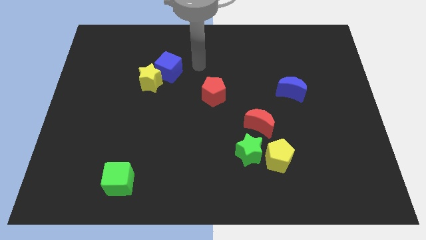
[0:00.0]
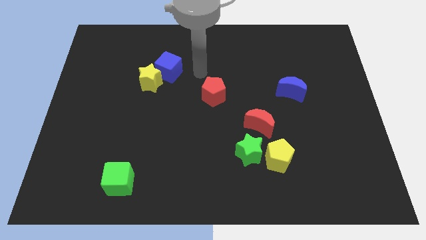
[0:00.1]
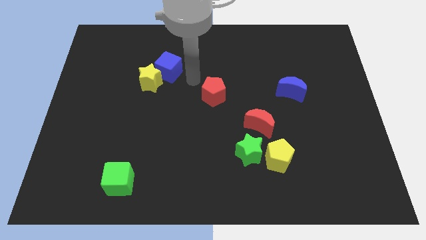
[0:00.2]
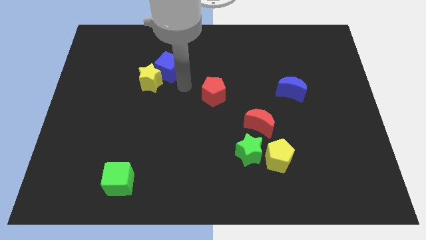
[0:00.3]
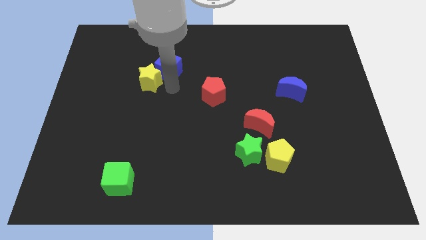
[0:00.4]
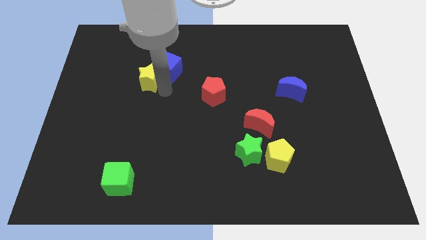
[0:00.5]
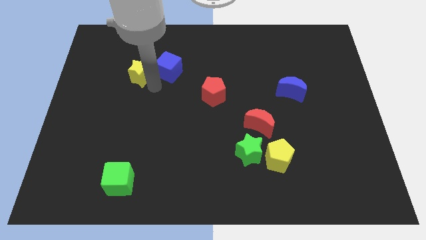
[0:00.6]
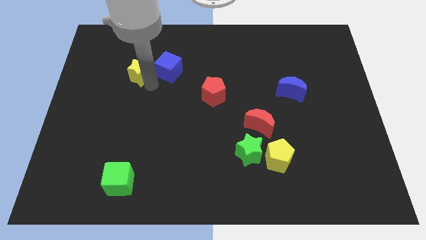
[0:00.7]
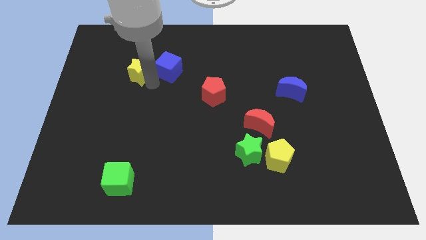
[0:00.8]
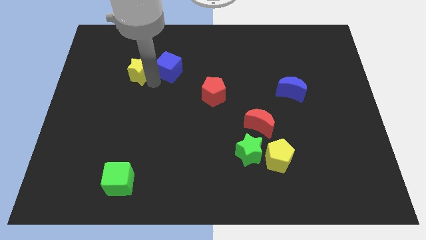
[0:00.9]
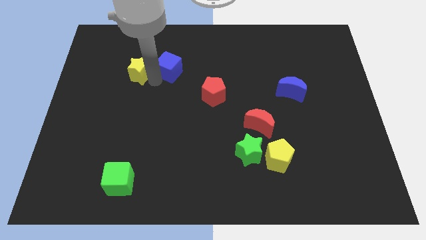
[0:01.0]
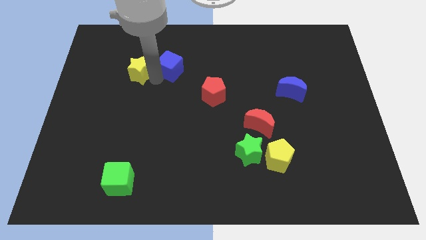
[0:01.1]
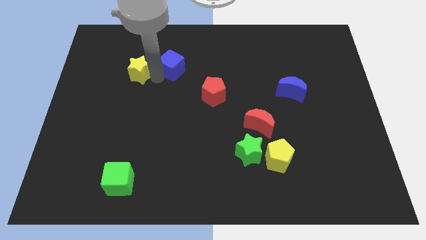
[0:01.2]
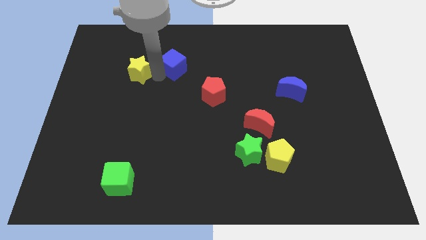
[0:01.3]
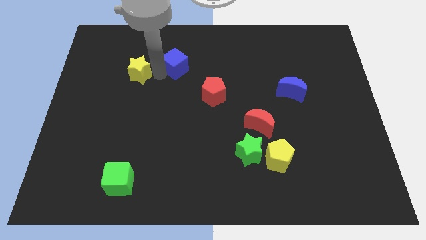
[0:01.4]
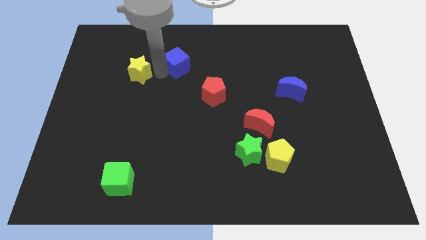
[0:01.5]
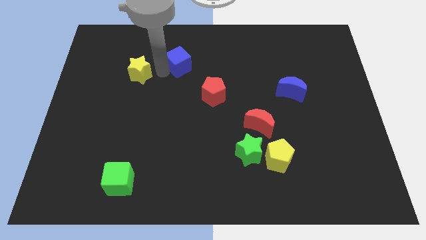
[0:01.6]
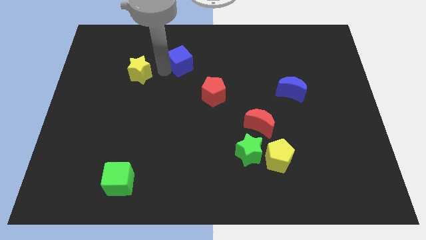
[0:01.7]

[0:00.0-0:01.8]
separate the blue cube from the yellow star

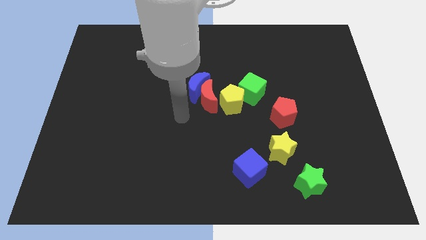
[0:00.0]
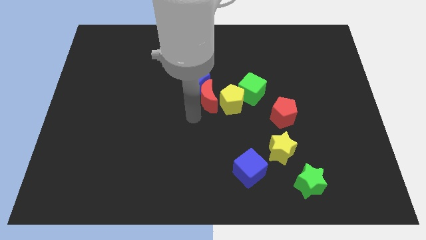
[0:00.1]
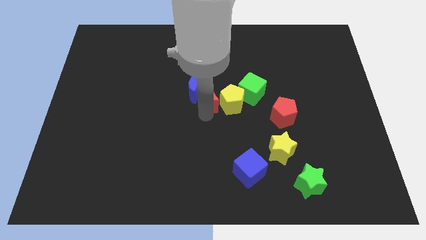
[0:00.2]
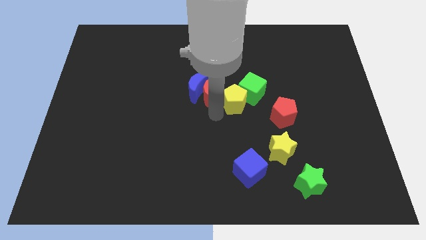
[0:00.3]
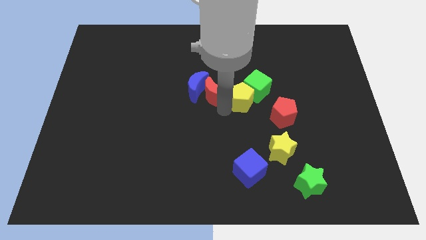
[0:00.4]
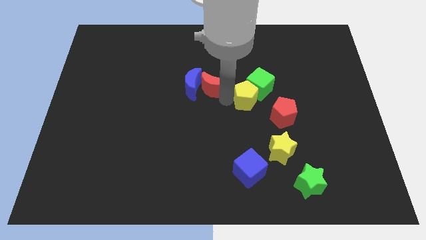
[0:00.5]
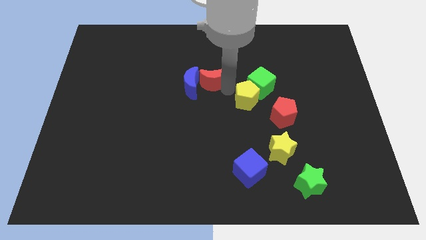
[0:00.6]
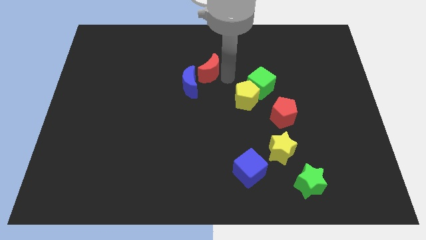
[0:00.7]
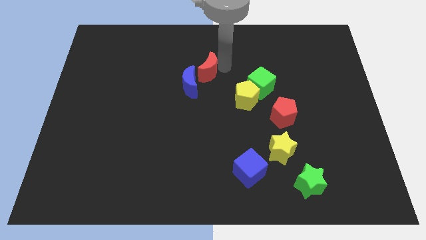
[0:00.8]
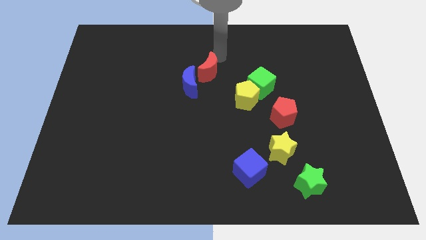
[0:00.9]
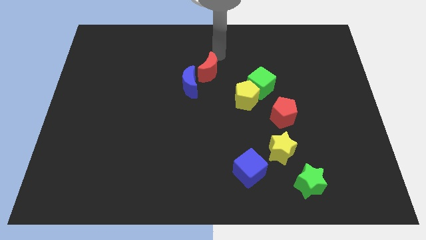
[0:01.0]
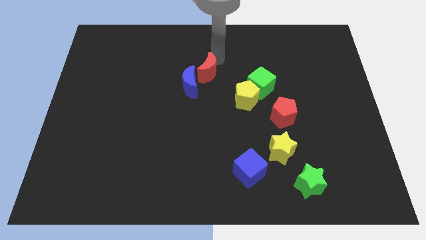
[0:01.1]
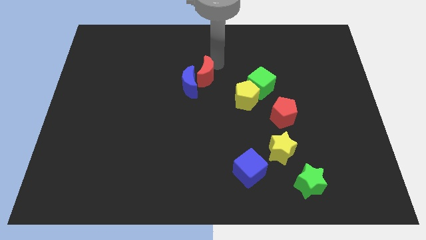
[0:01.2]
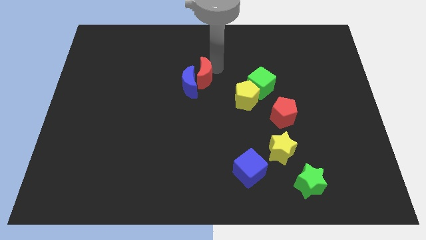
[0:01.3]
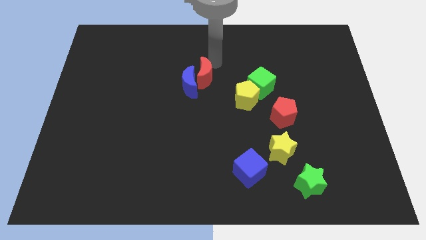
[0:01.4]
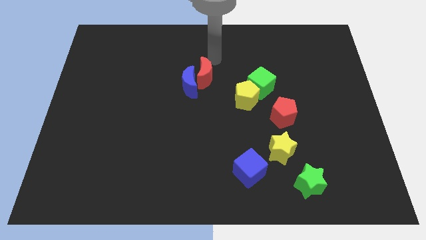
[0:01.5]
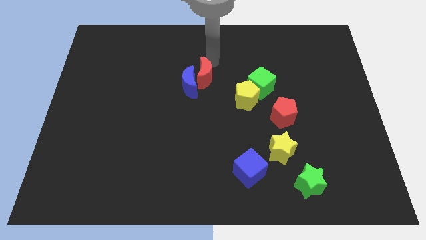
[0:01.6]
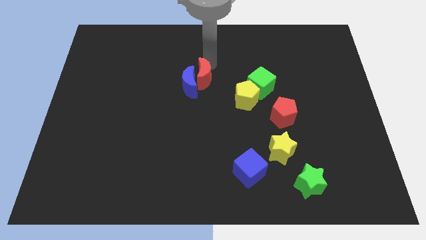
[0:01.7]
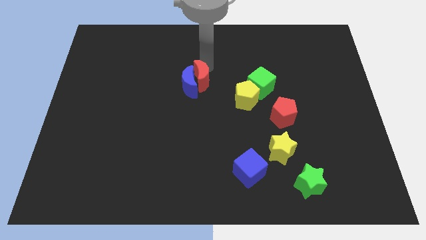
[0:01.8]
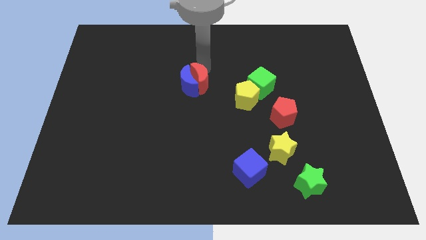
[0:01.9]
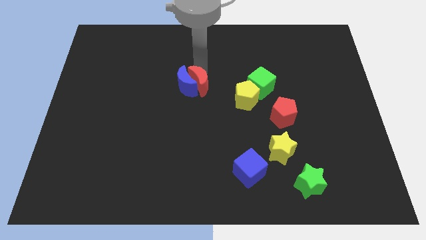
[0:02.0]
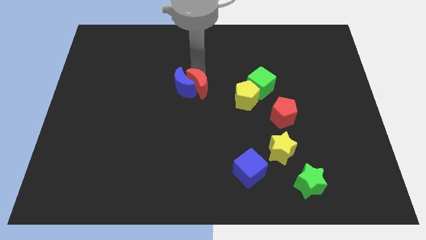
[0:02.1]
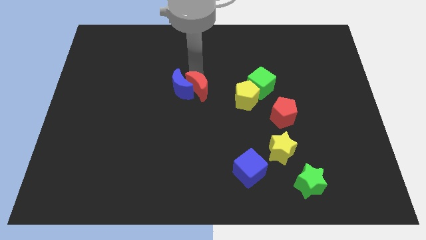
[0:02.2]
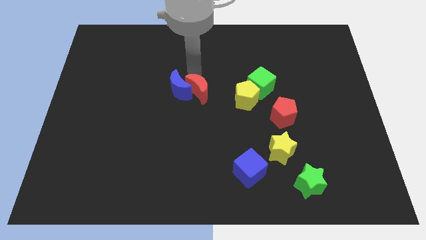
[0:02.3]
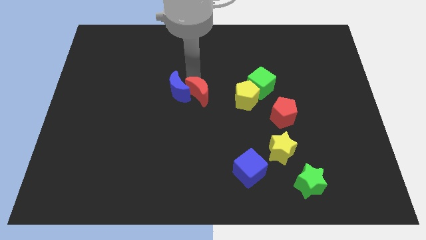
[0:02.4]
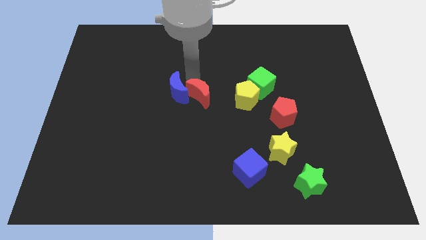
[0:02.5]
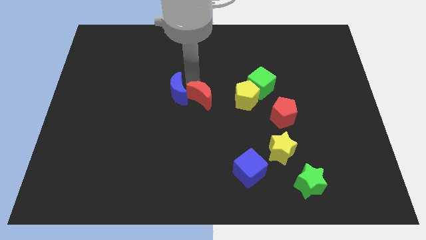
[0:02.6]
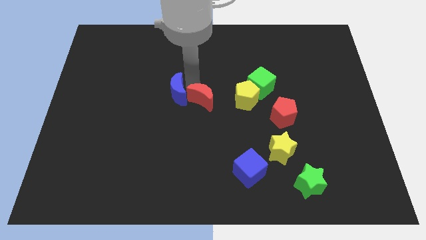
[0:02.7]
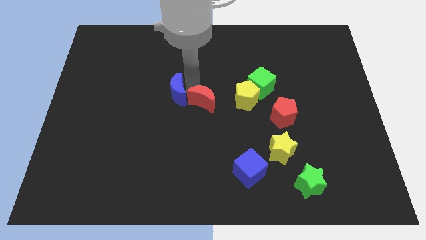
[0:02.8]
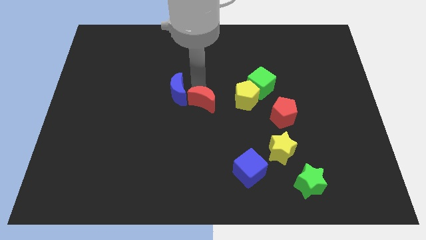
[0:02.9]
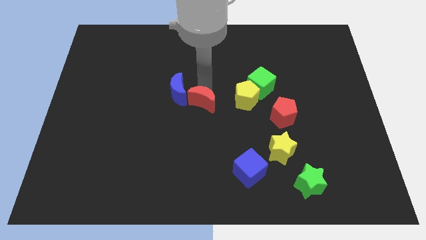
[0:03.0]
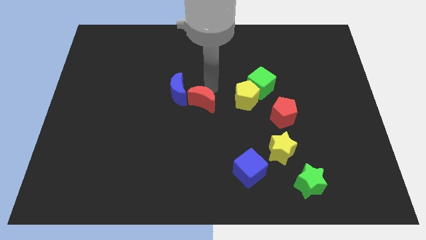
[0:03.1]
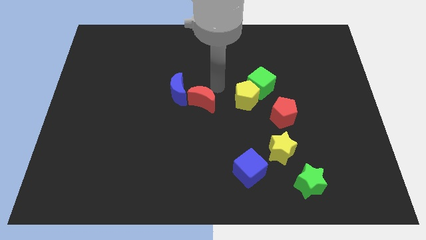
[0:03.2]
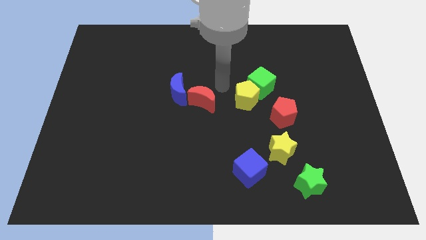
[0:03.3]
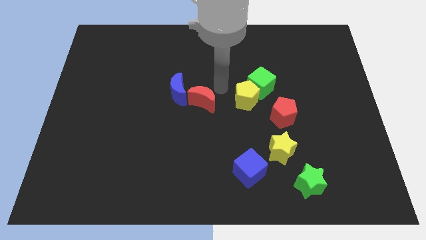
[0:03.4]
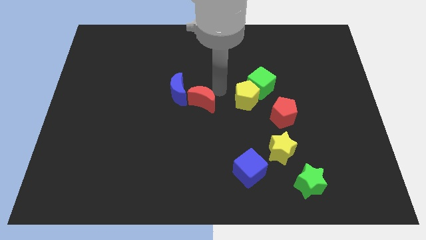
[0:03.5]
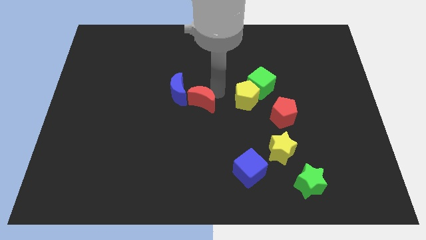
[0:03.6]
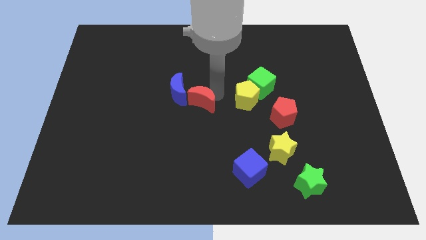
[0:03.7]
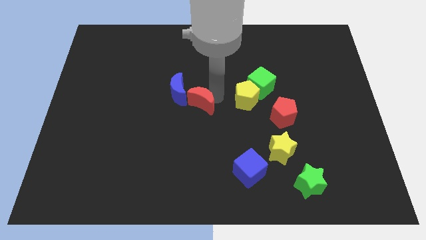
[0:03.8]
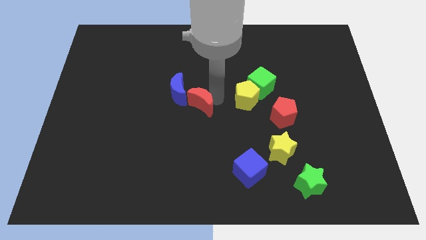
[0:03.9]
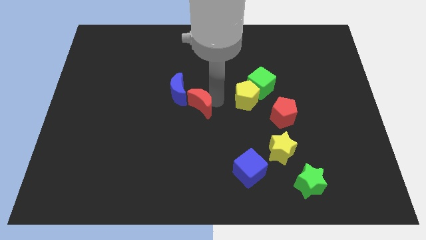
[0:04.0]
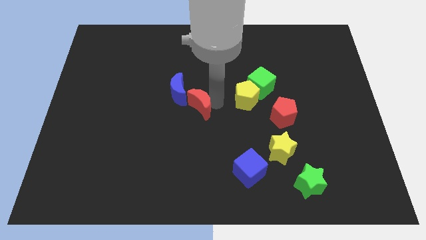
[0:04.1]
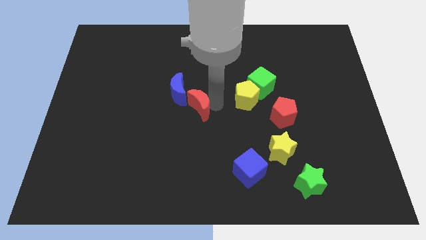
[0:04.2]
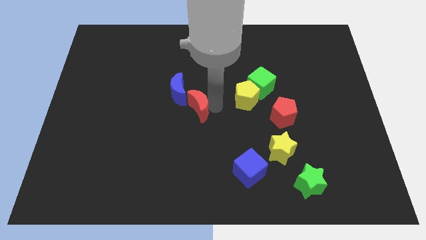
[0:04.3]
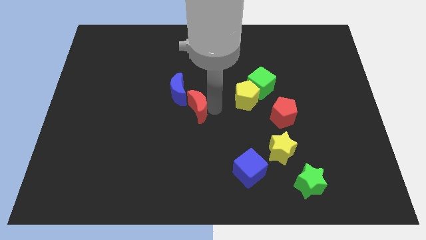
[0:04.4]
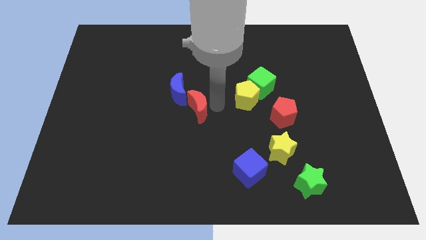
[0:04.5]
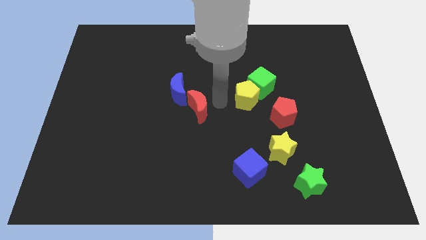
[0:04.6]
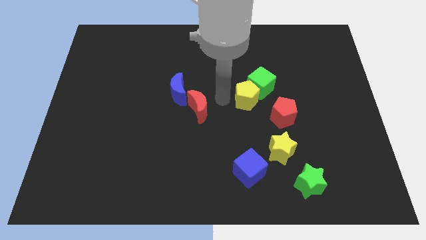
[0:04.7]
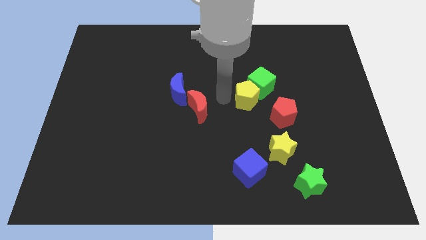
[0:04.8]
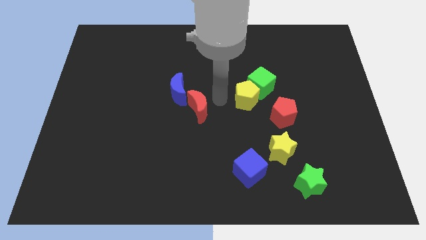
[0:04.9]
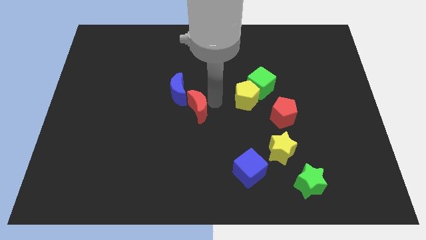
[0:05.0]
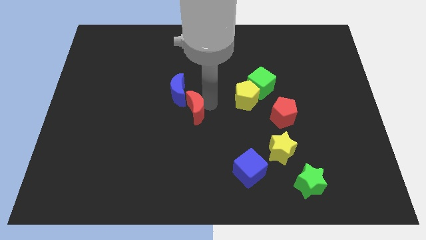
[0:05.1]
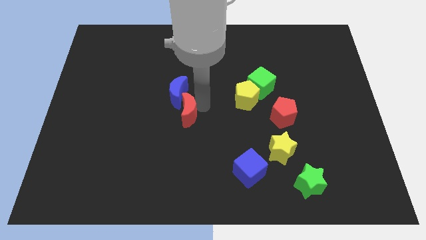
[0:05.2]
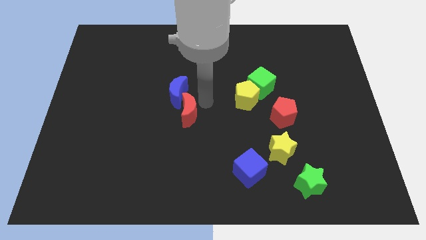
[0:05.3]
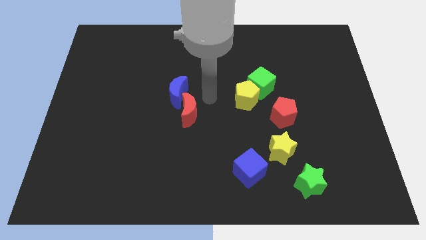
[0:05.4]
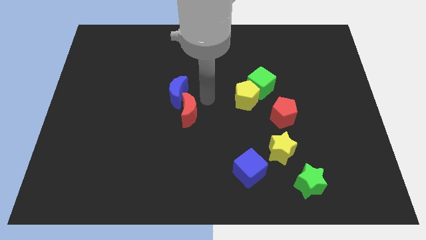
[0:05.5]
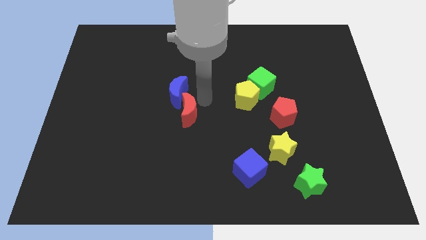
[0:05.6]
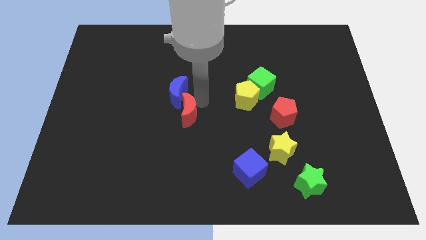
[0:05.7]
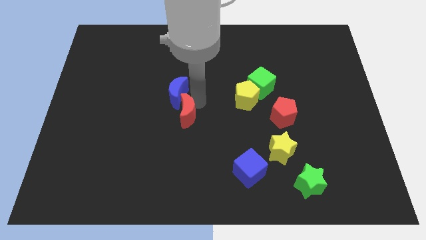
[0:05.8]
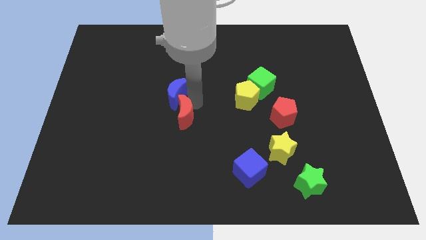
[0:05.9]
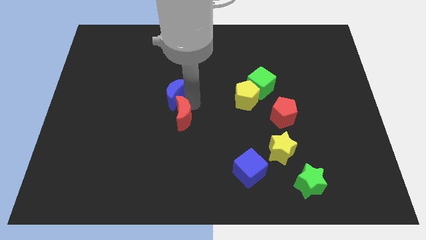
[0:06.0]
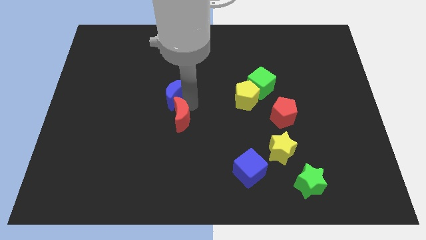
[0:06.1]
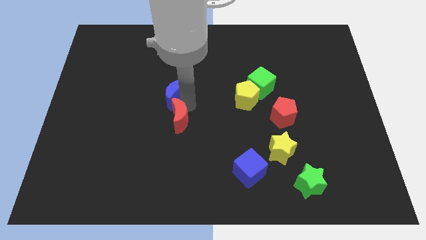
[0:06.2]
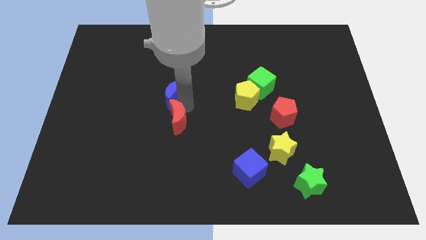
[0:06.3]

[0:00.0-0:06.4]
move the red moon away from the blue moon and yellow pentagon

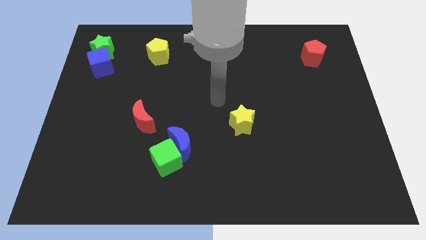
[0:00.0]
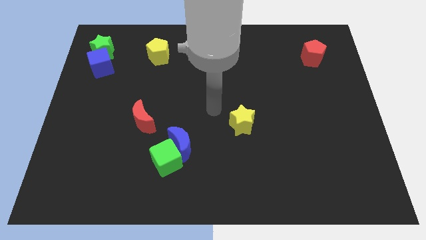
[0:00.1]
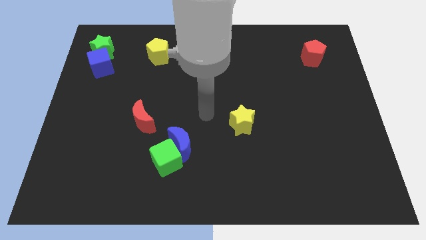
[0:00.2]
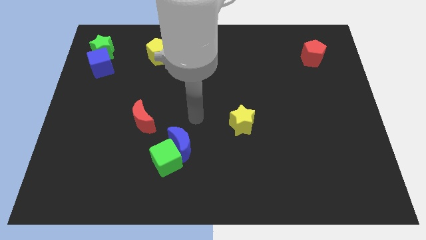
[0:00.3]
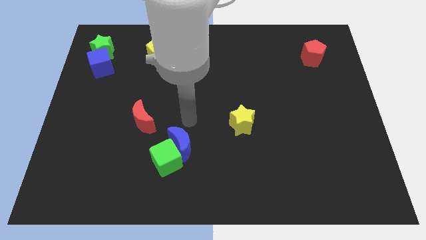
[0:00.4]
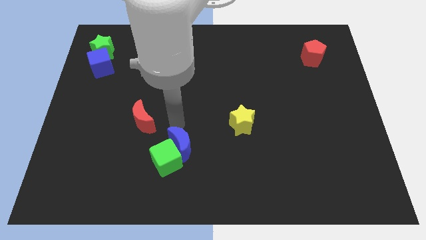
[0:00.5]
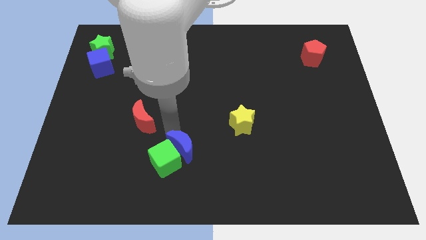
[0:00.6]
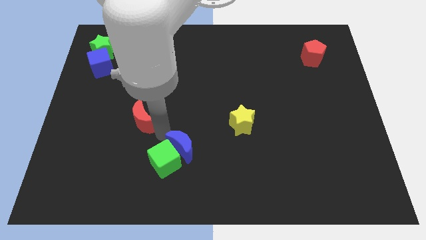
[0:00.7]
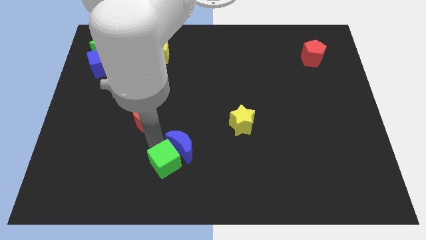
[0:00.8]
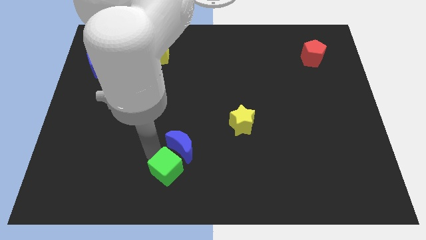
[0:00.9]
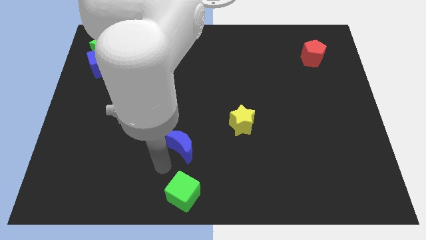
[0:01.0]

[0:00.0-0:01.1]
move the blue moon away from the green cube
